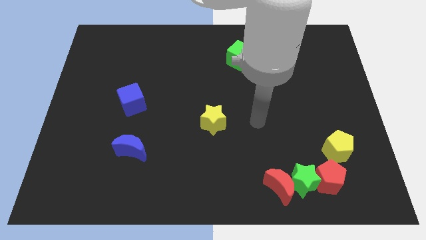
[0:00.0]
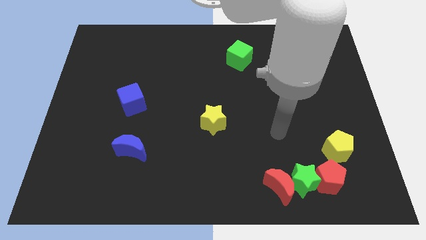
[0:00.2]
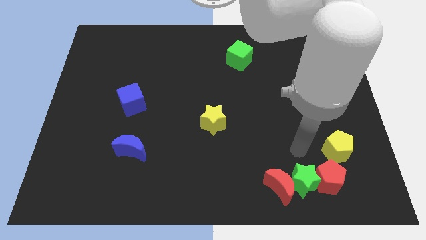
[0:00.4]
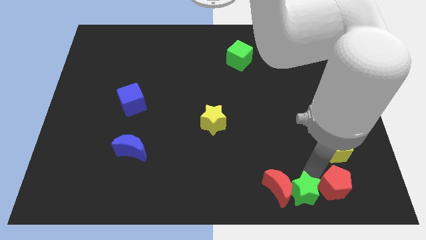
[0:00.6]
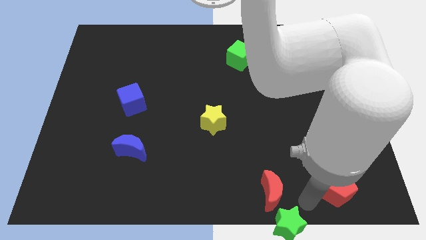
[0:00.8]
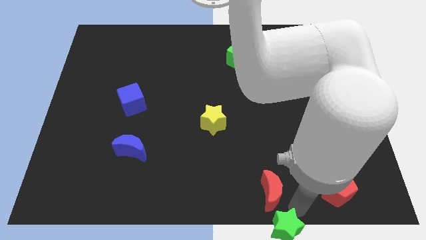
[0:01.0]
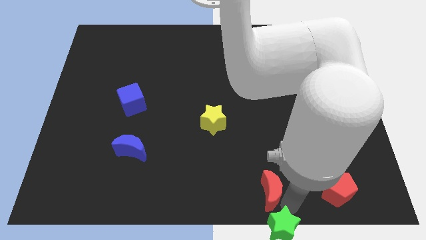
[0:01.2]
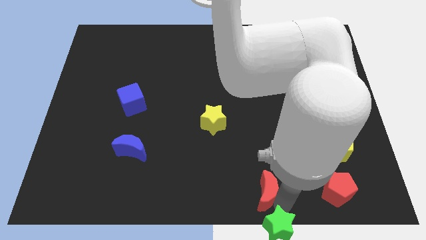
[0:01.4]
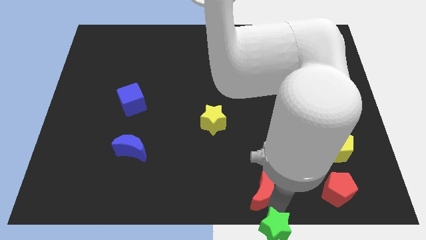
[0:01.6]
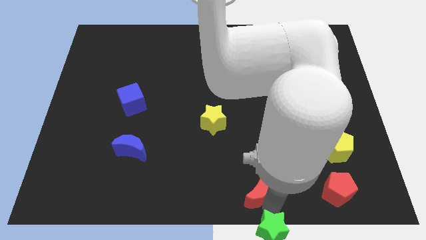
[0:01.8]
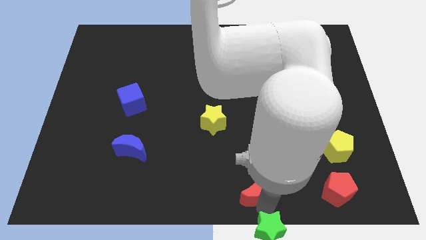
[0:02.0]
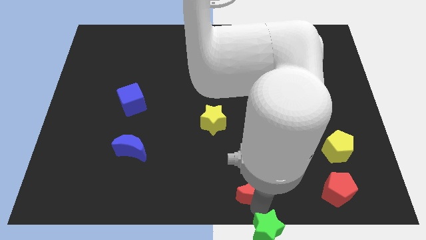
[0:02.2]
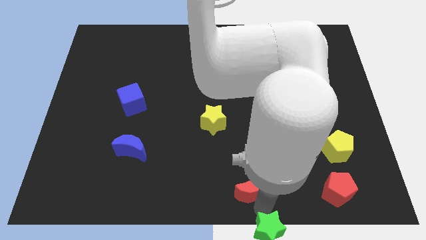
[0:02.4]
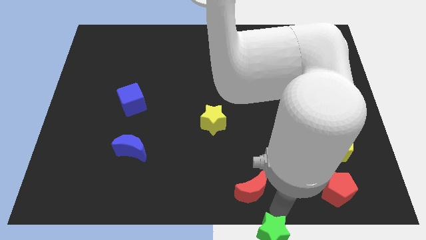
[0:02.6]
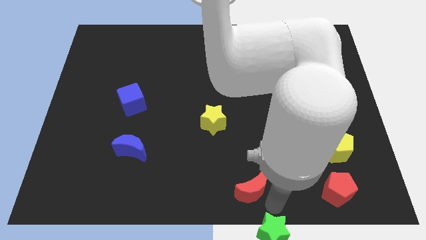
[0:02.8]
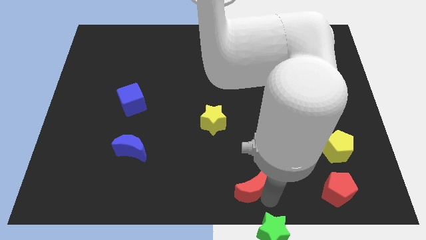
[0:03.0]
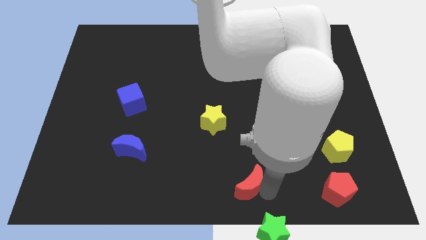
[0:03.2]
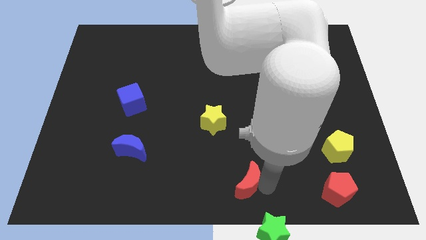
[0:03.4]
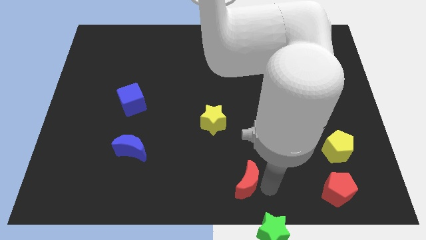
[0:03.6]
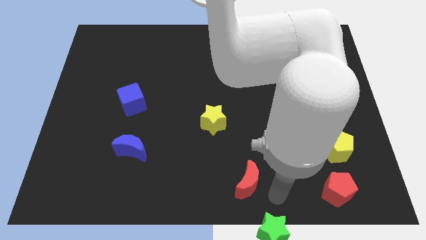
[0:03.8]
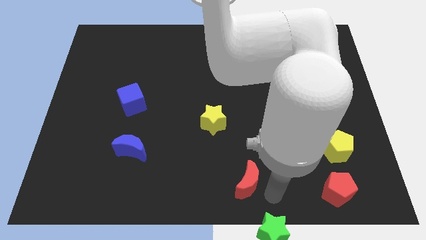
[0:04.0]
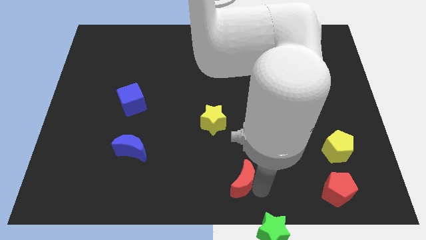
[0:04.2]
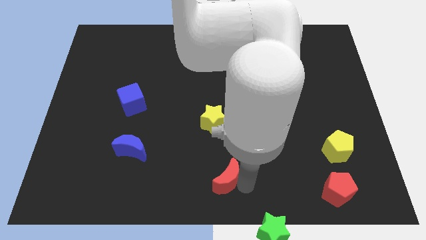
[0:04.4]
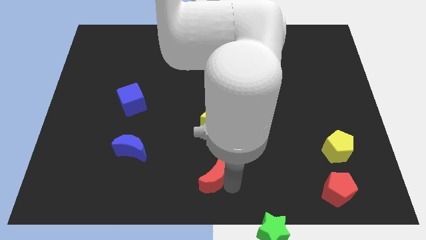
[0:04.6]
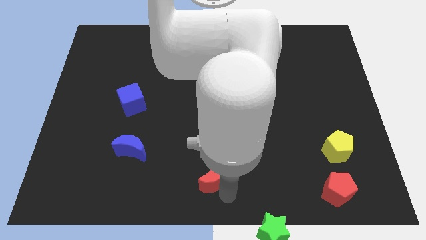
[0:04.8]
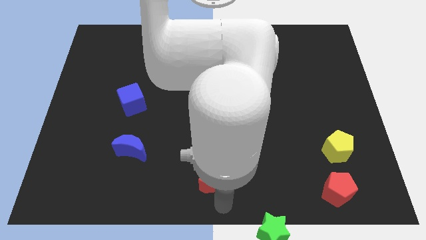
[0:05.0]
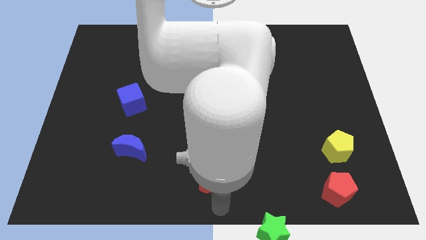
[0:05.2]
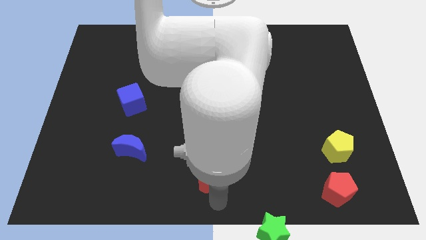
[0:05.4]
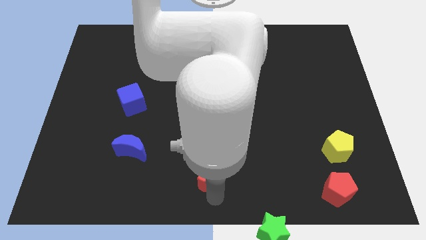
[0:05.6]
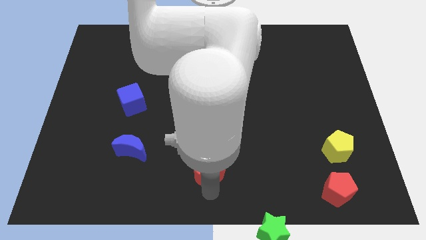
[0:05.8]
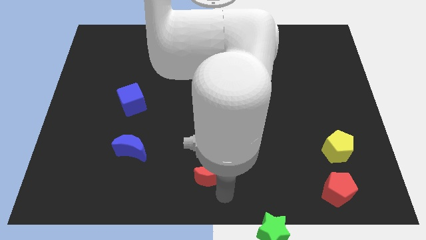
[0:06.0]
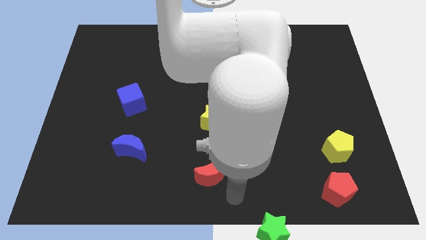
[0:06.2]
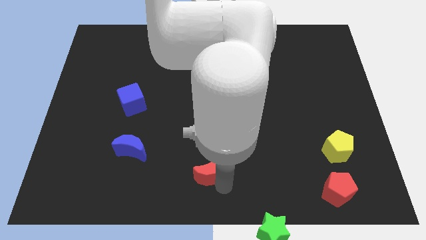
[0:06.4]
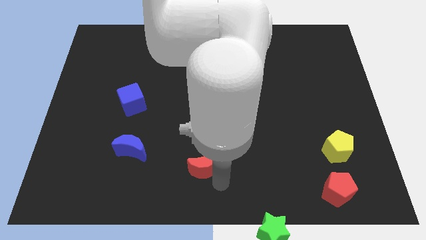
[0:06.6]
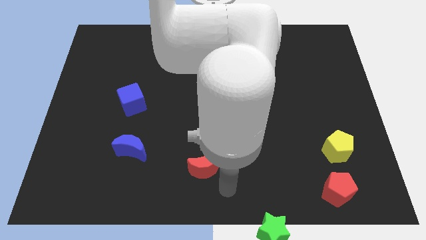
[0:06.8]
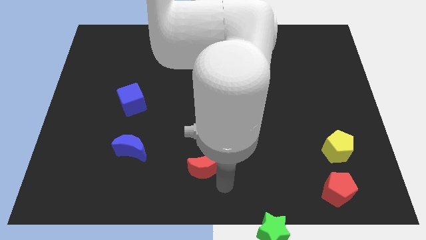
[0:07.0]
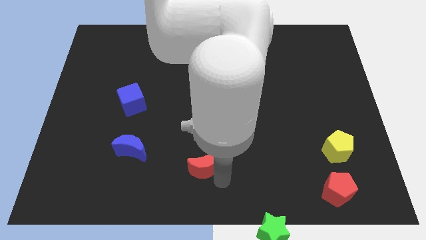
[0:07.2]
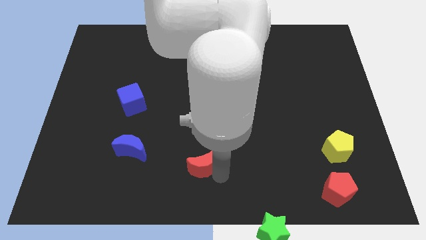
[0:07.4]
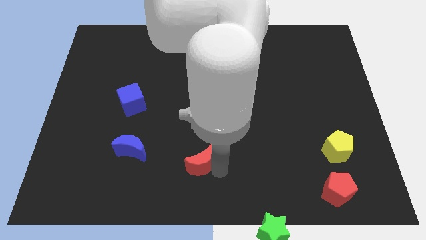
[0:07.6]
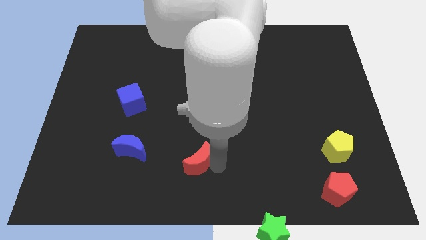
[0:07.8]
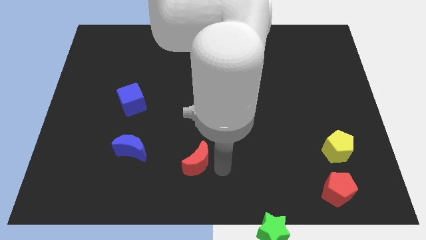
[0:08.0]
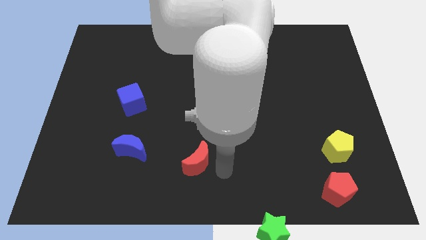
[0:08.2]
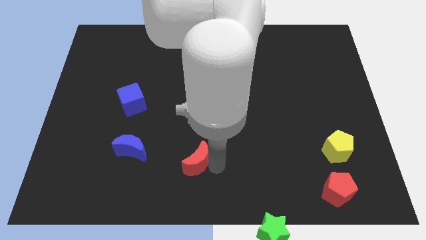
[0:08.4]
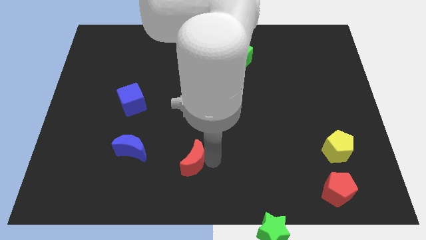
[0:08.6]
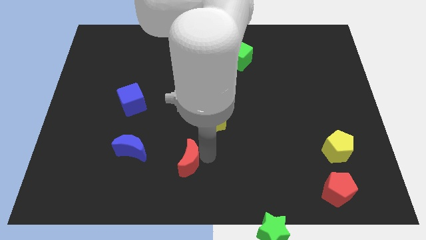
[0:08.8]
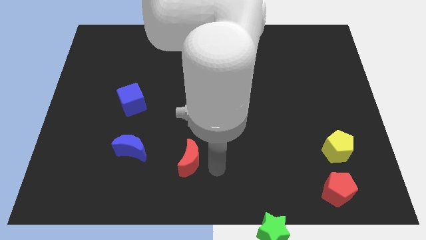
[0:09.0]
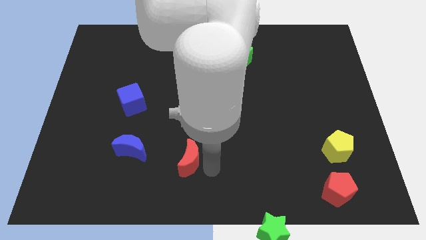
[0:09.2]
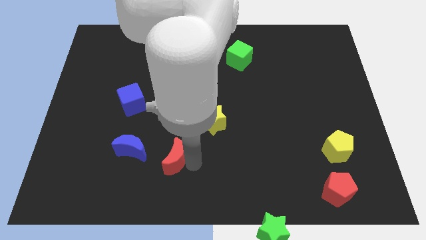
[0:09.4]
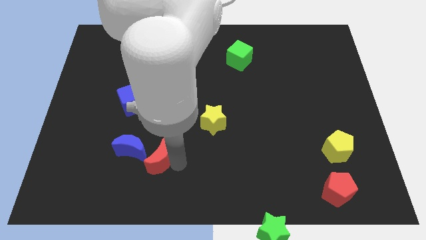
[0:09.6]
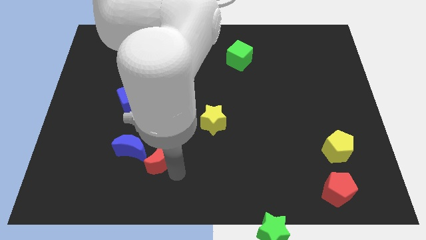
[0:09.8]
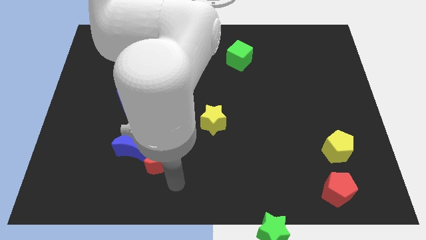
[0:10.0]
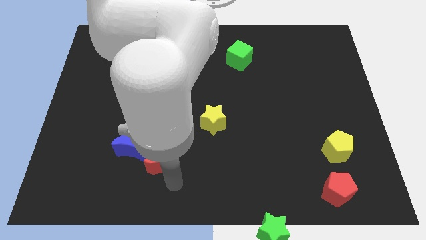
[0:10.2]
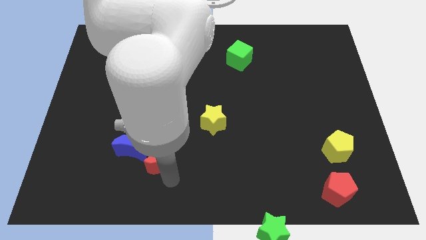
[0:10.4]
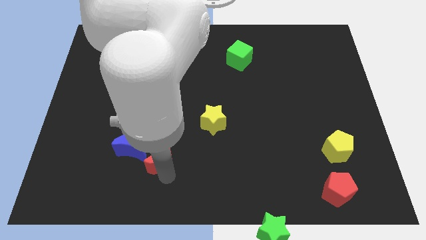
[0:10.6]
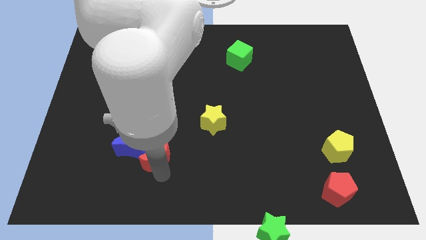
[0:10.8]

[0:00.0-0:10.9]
put the red moon next to the blue moon
